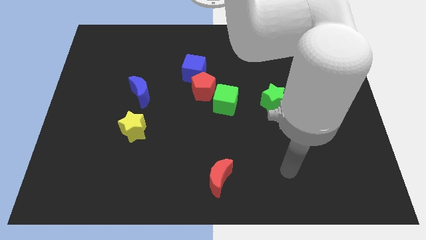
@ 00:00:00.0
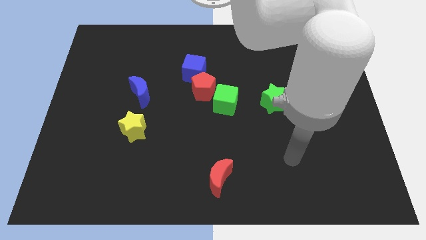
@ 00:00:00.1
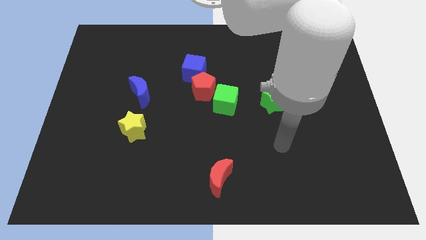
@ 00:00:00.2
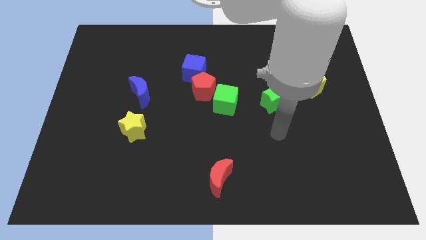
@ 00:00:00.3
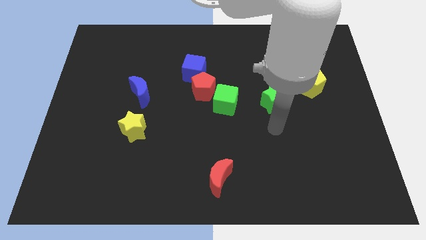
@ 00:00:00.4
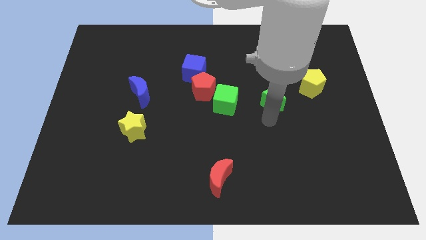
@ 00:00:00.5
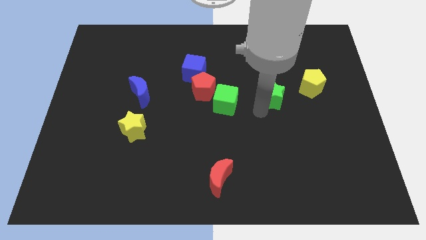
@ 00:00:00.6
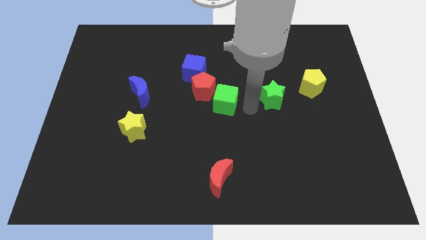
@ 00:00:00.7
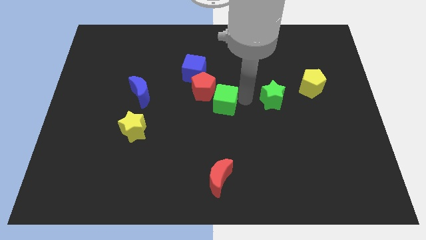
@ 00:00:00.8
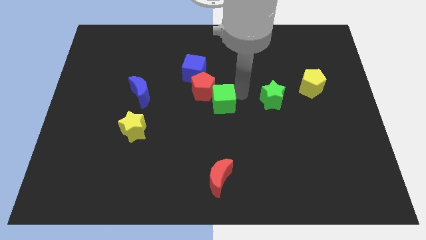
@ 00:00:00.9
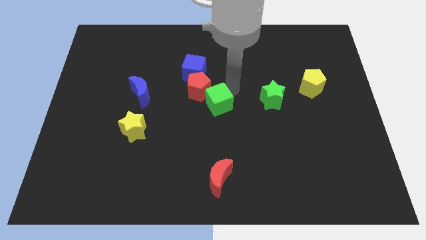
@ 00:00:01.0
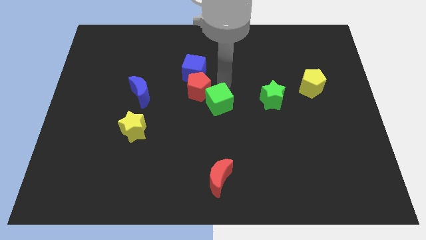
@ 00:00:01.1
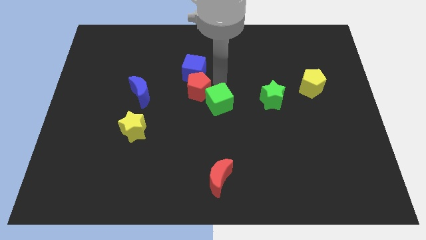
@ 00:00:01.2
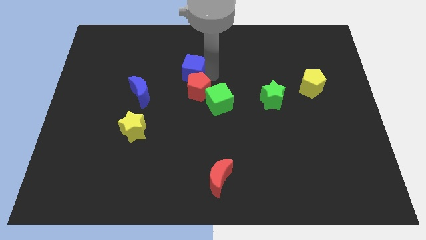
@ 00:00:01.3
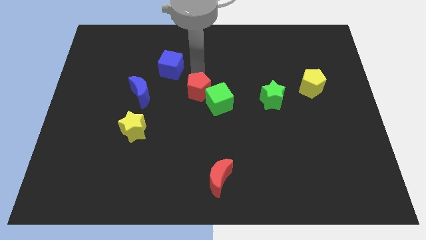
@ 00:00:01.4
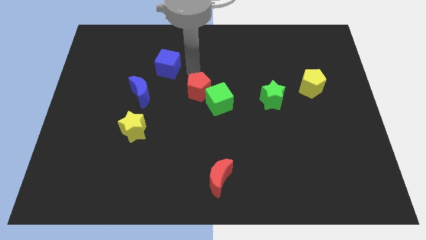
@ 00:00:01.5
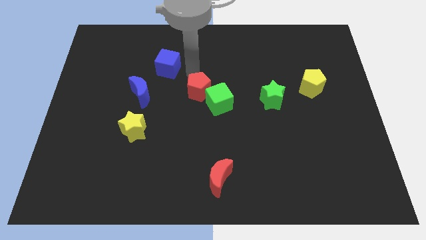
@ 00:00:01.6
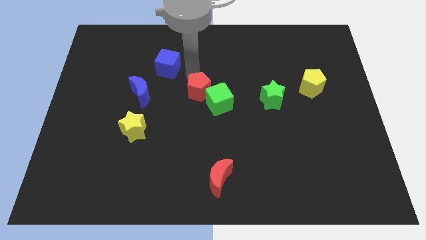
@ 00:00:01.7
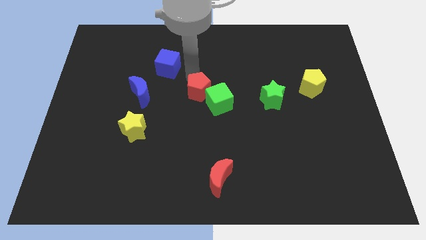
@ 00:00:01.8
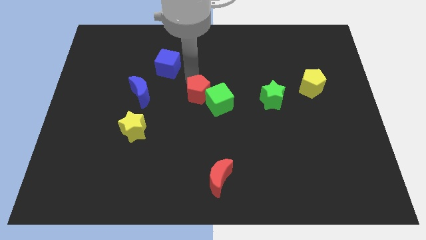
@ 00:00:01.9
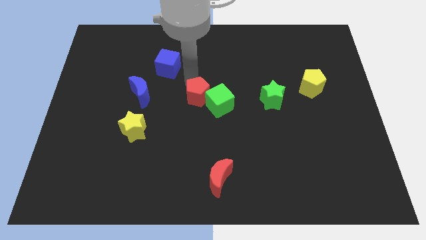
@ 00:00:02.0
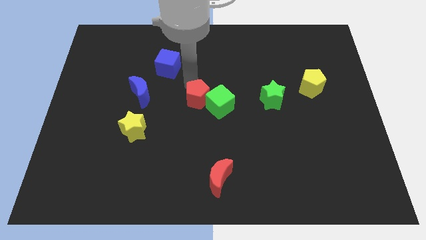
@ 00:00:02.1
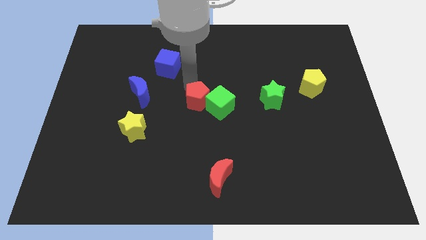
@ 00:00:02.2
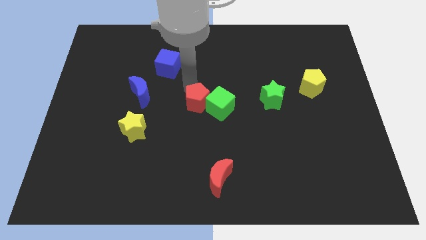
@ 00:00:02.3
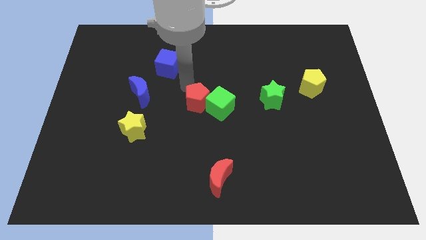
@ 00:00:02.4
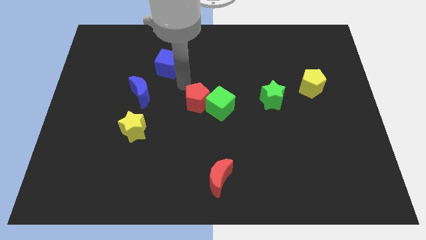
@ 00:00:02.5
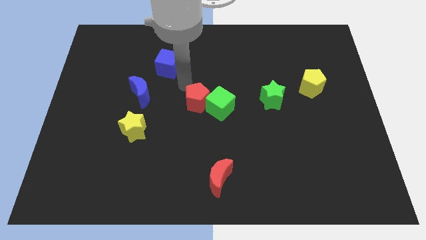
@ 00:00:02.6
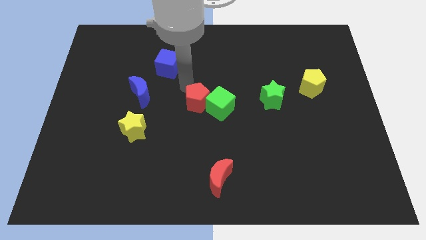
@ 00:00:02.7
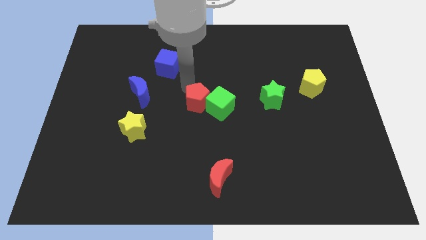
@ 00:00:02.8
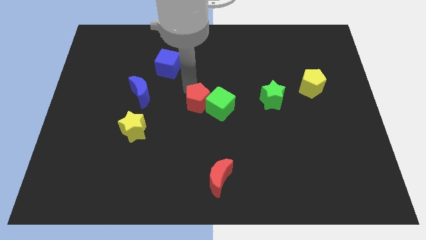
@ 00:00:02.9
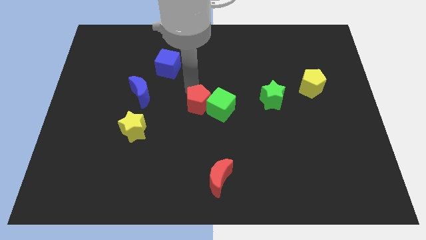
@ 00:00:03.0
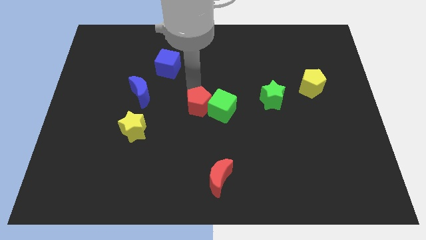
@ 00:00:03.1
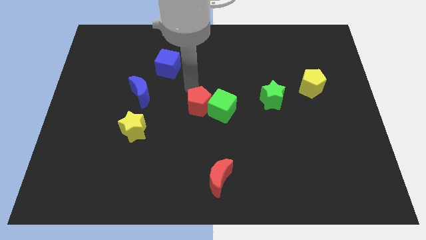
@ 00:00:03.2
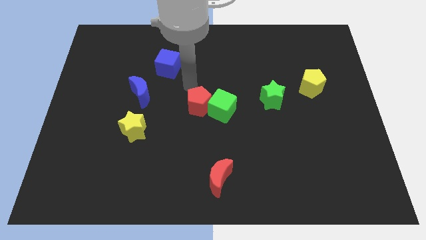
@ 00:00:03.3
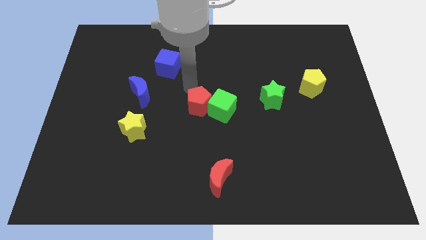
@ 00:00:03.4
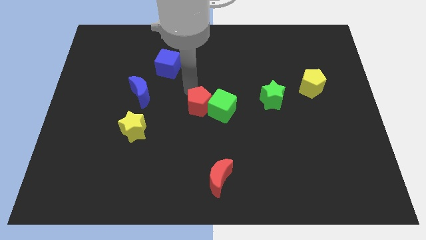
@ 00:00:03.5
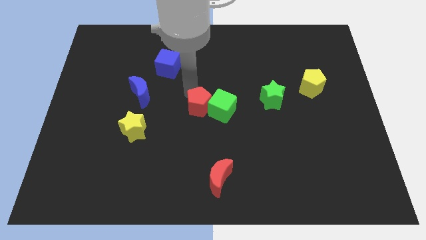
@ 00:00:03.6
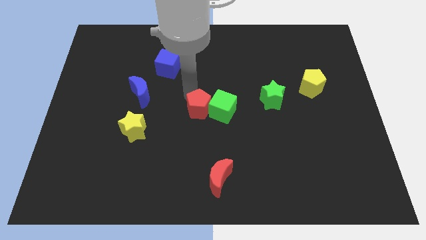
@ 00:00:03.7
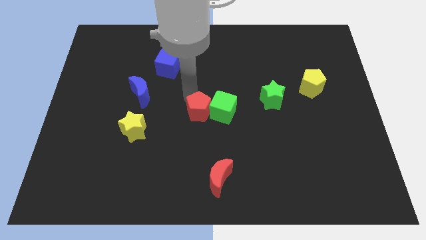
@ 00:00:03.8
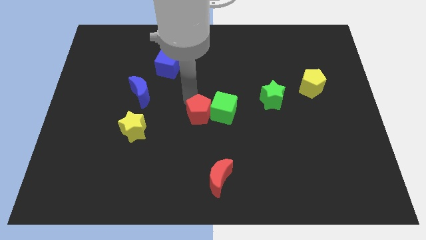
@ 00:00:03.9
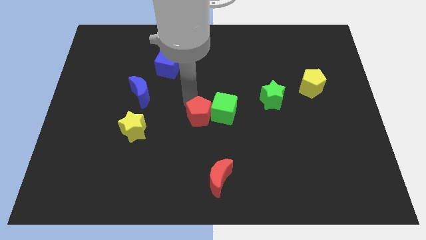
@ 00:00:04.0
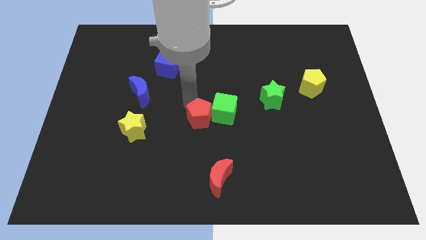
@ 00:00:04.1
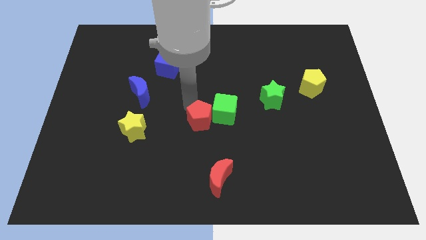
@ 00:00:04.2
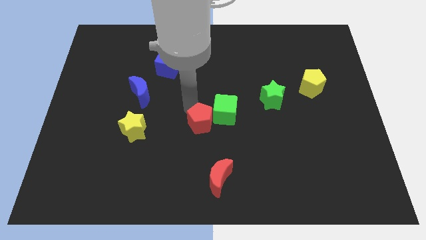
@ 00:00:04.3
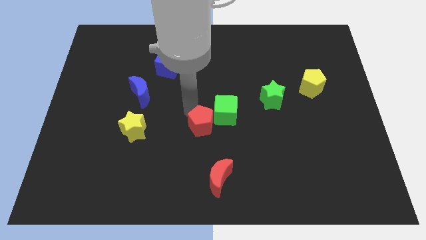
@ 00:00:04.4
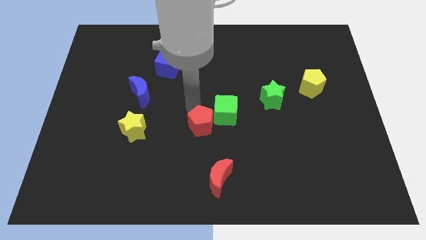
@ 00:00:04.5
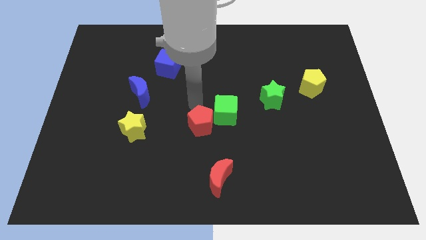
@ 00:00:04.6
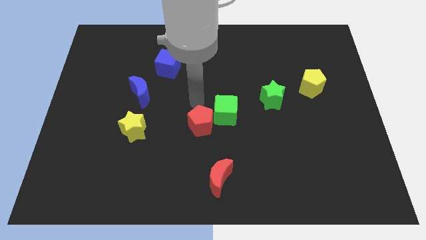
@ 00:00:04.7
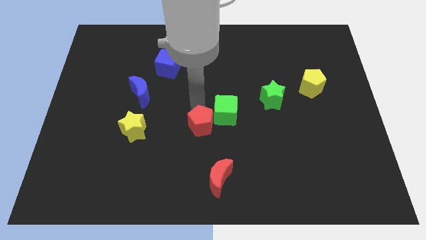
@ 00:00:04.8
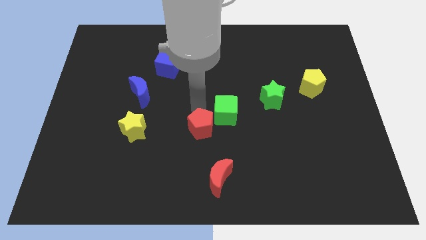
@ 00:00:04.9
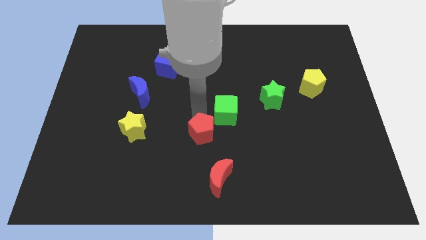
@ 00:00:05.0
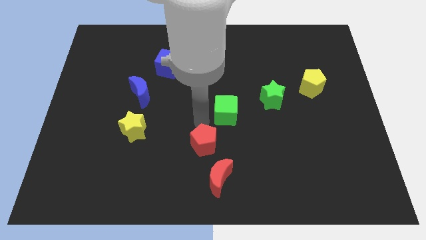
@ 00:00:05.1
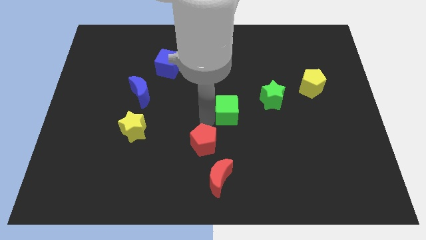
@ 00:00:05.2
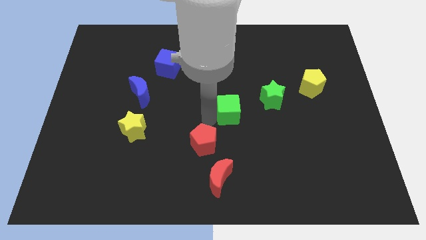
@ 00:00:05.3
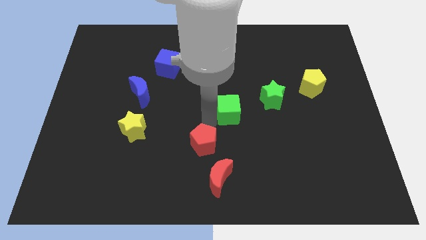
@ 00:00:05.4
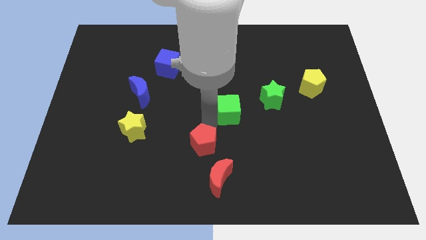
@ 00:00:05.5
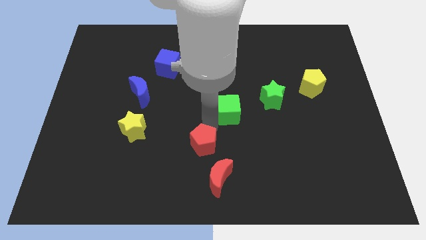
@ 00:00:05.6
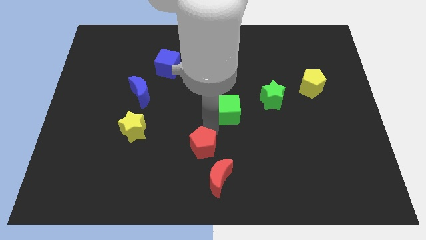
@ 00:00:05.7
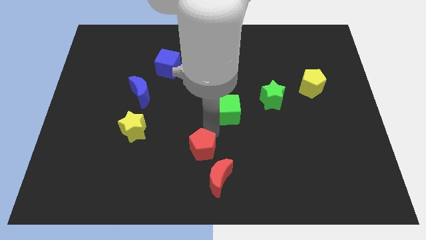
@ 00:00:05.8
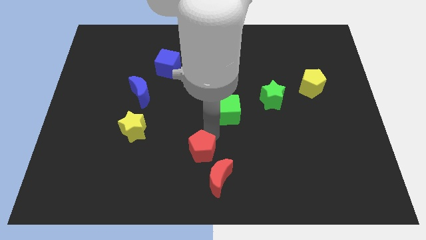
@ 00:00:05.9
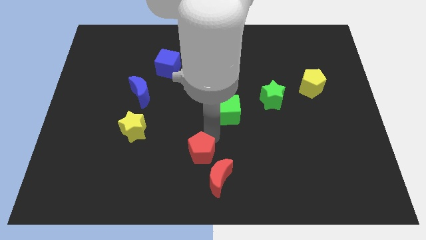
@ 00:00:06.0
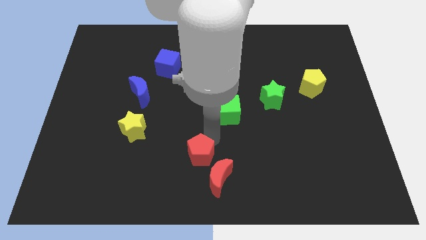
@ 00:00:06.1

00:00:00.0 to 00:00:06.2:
slide the red pentagon to the bottom
